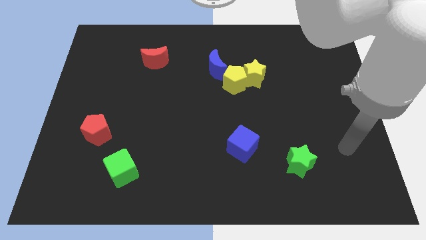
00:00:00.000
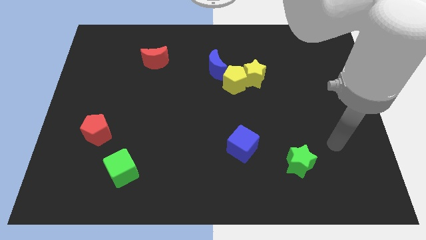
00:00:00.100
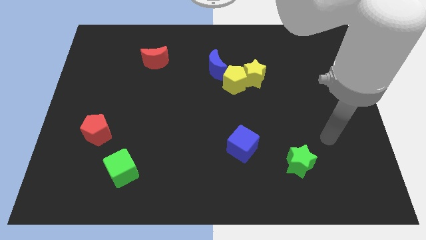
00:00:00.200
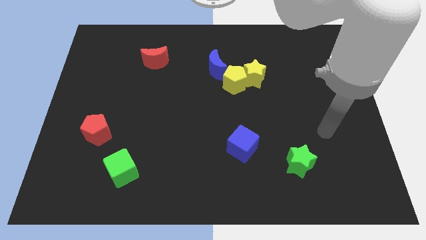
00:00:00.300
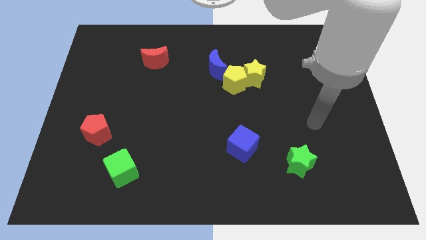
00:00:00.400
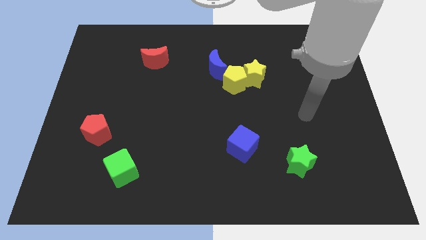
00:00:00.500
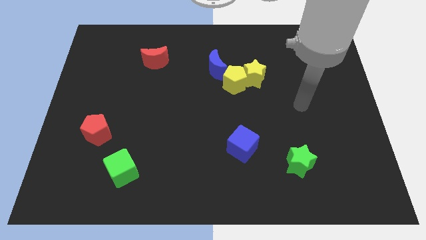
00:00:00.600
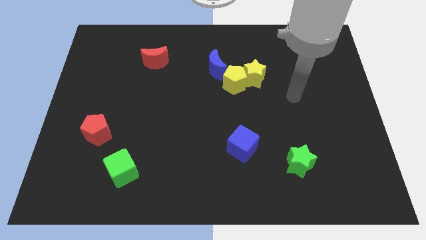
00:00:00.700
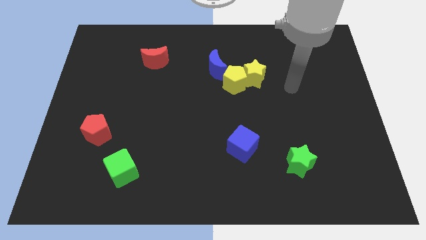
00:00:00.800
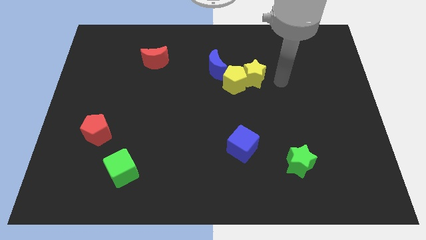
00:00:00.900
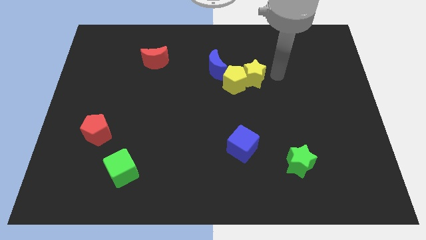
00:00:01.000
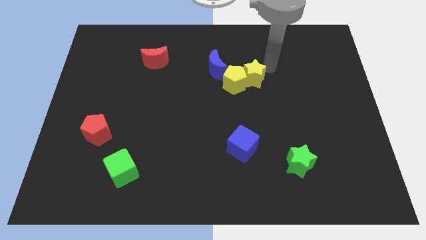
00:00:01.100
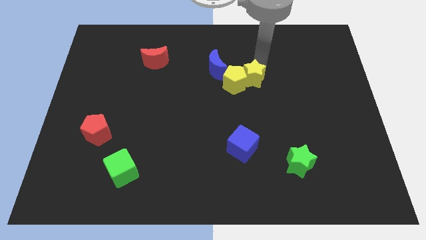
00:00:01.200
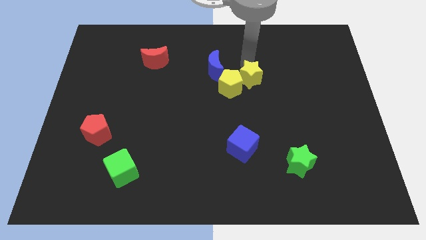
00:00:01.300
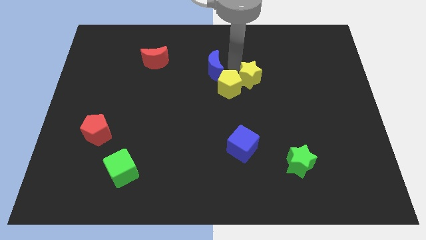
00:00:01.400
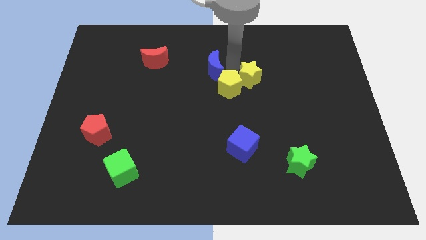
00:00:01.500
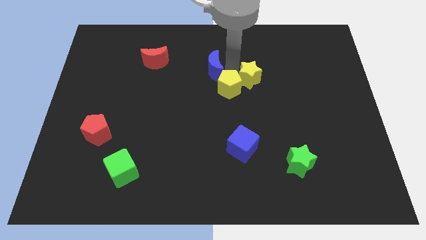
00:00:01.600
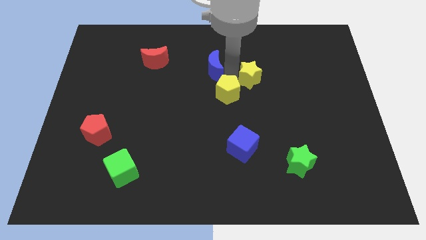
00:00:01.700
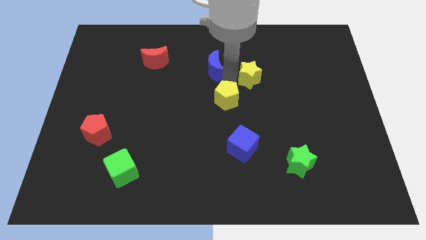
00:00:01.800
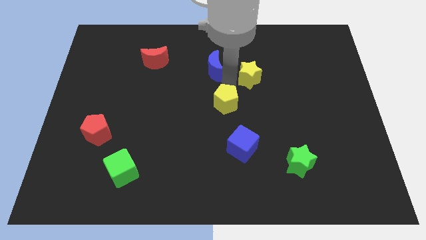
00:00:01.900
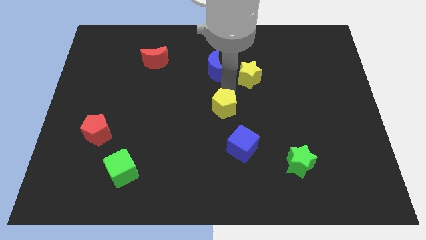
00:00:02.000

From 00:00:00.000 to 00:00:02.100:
separate the yellow pentagon from the yellow star and blue moon

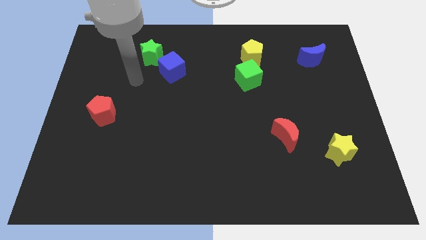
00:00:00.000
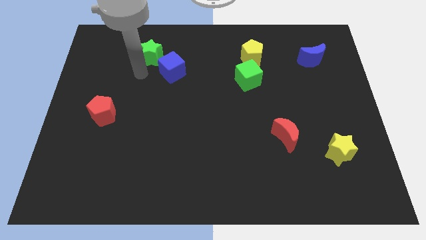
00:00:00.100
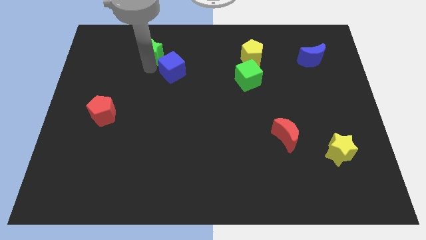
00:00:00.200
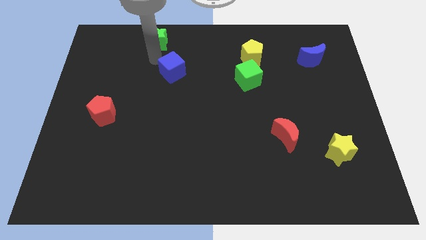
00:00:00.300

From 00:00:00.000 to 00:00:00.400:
pull the blue cube apart from the green star

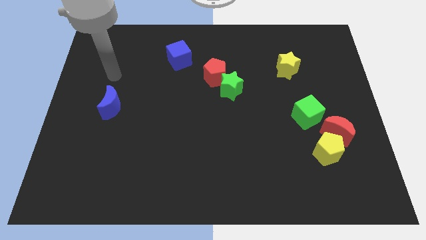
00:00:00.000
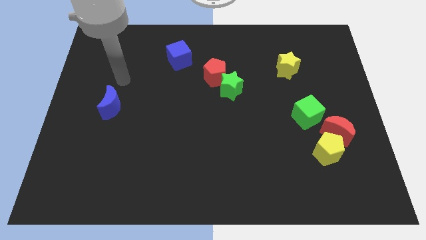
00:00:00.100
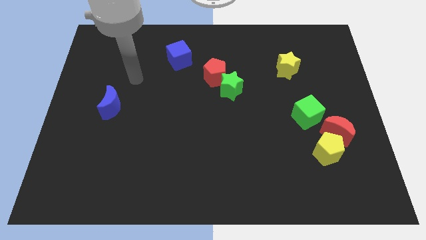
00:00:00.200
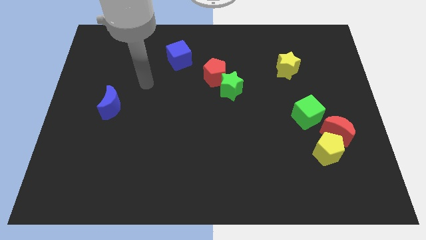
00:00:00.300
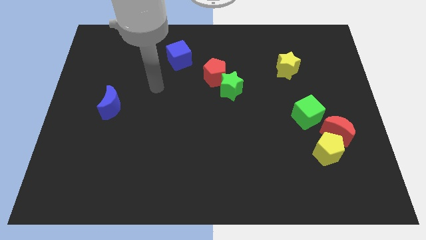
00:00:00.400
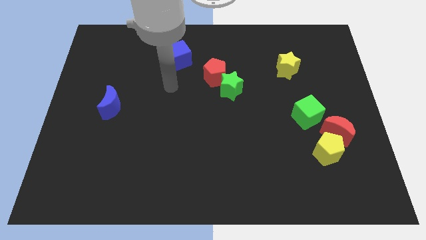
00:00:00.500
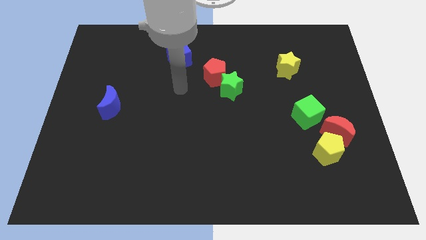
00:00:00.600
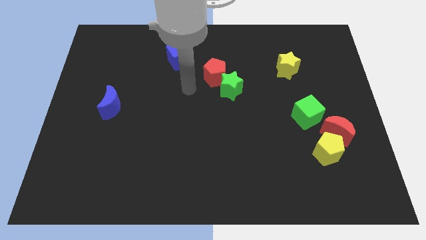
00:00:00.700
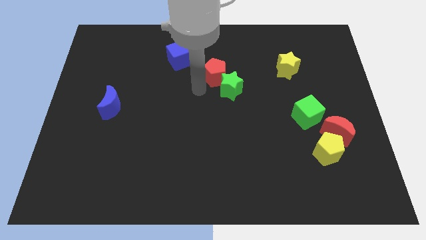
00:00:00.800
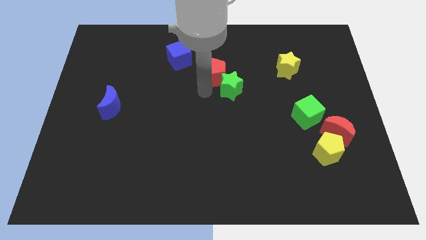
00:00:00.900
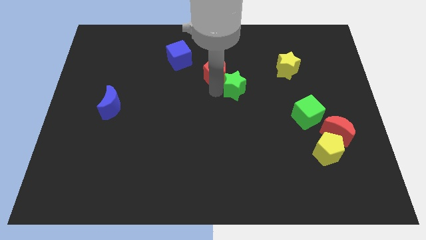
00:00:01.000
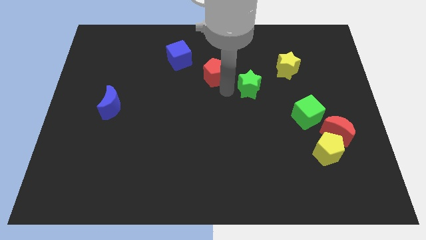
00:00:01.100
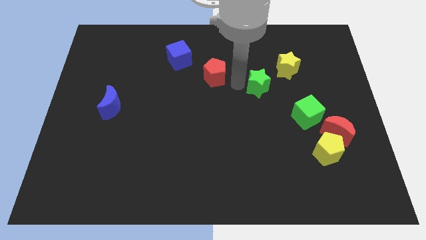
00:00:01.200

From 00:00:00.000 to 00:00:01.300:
pull the red pentagon apart from the green star

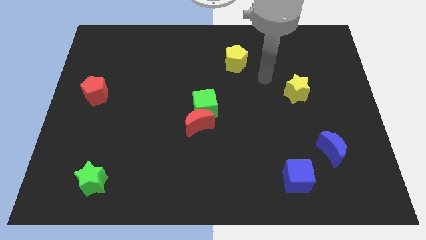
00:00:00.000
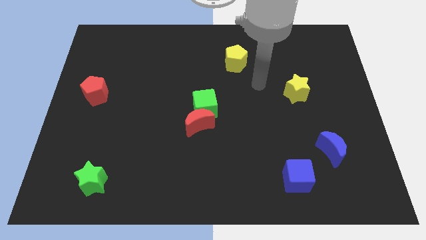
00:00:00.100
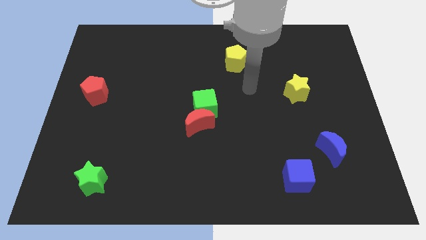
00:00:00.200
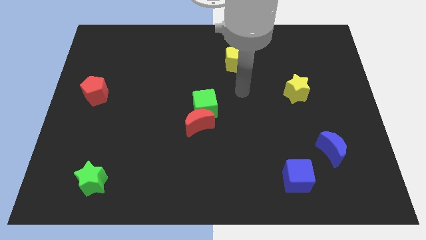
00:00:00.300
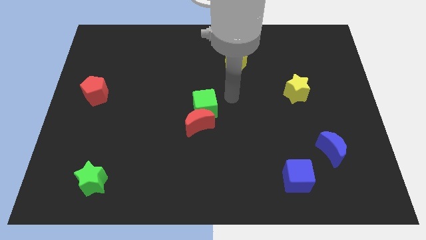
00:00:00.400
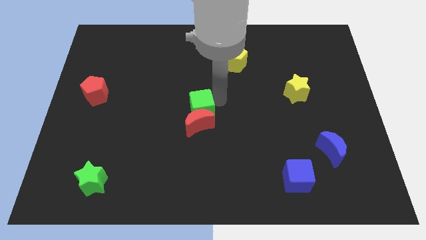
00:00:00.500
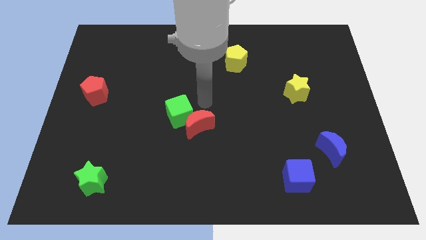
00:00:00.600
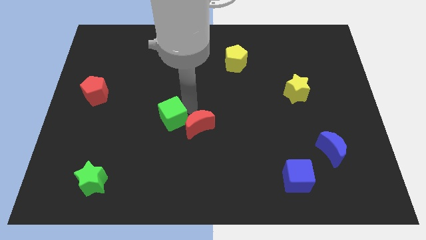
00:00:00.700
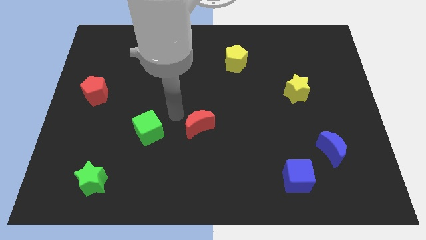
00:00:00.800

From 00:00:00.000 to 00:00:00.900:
separate the red moon from the green cube

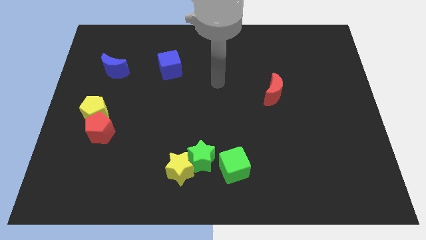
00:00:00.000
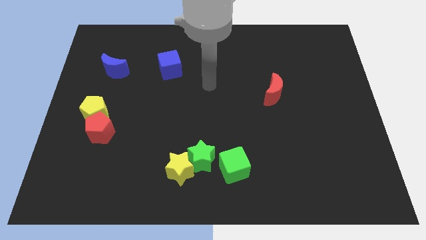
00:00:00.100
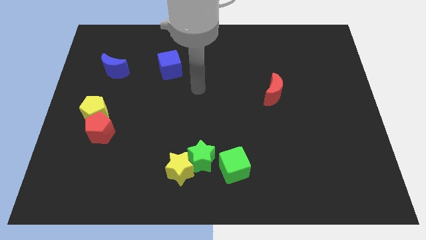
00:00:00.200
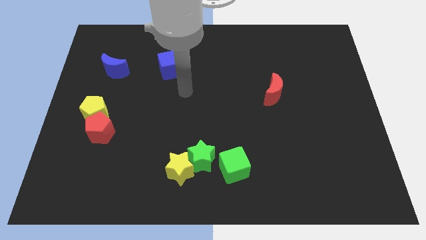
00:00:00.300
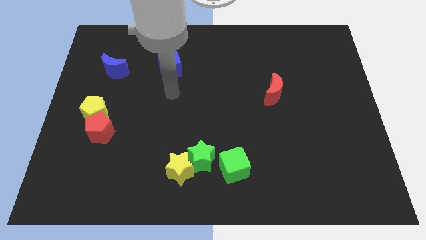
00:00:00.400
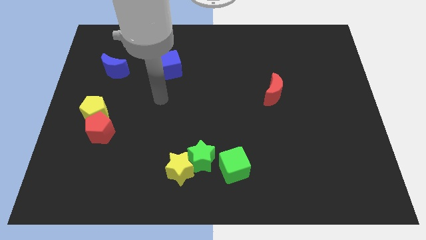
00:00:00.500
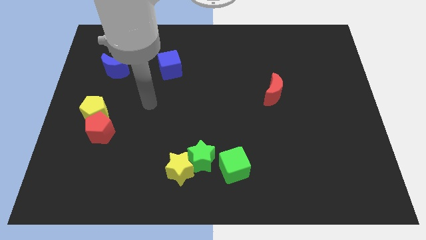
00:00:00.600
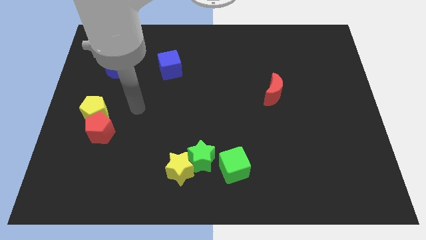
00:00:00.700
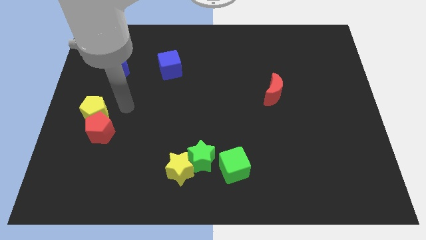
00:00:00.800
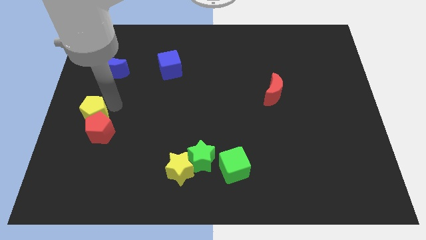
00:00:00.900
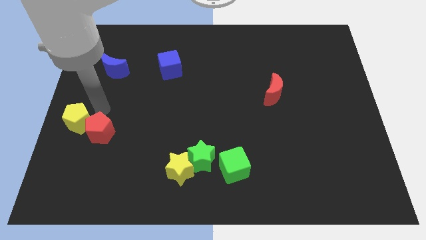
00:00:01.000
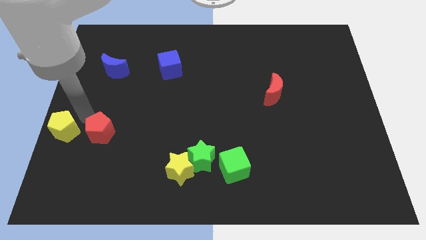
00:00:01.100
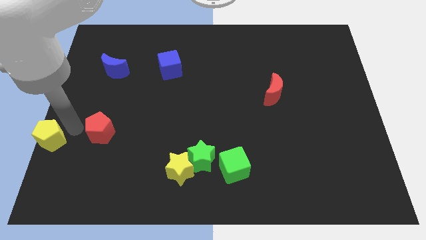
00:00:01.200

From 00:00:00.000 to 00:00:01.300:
separate the red pentagon from the yellow pentagon

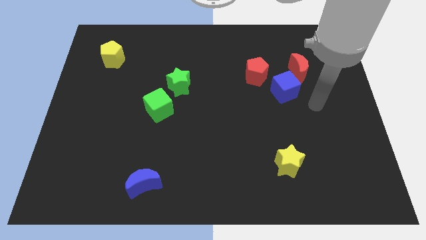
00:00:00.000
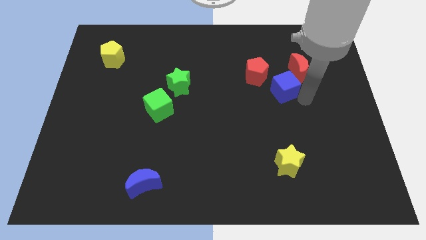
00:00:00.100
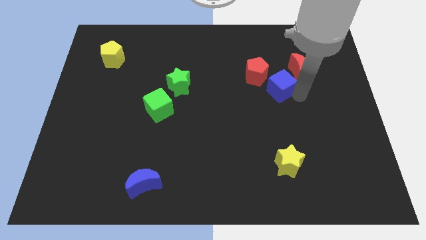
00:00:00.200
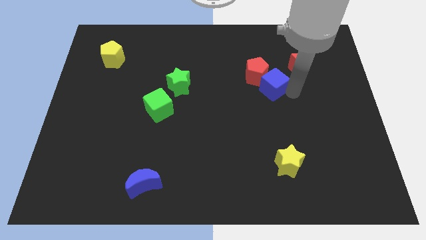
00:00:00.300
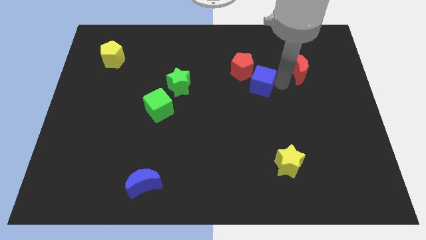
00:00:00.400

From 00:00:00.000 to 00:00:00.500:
pull the red moon apart from the blue cube

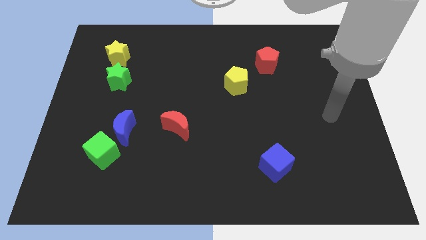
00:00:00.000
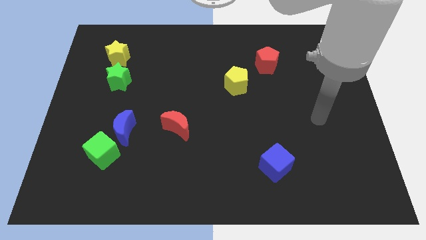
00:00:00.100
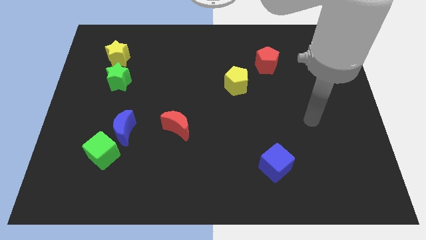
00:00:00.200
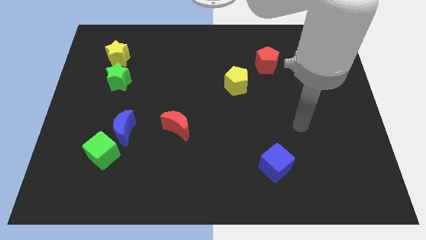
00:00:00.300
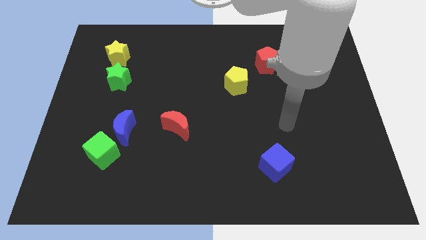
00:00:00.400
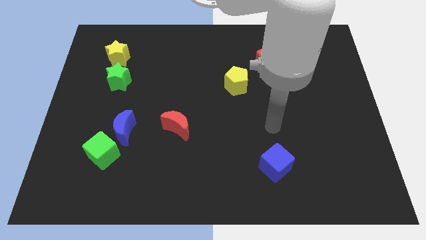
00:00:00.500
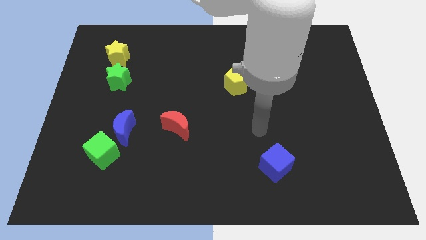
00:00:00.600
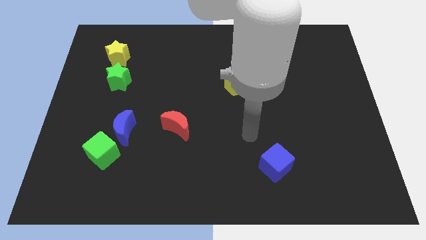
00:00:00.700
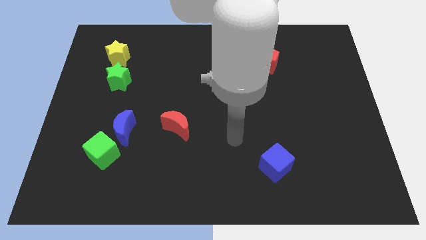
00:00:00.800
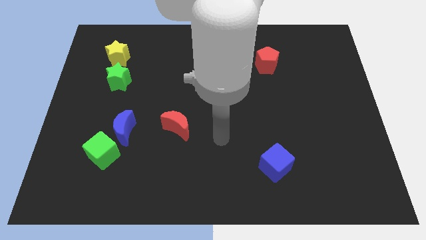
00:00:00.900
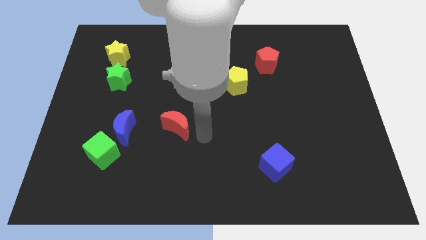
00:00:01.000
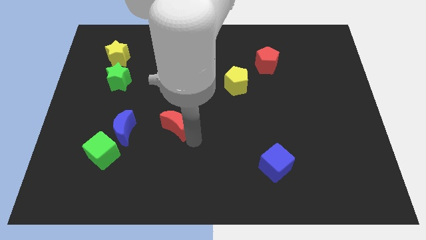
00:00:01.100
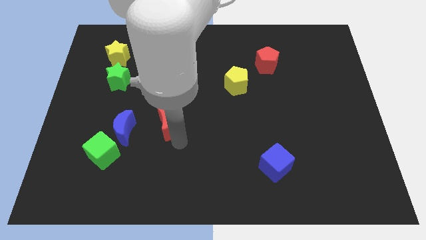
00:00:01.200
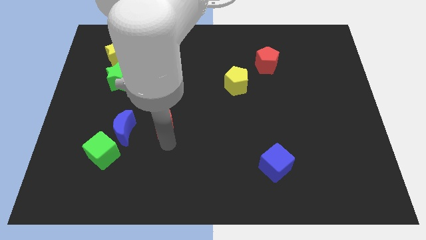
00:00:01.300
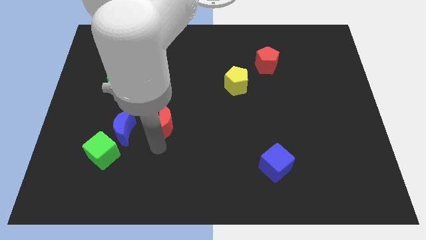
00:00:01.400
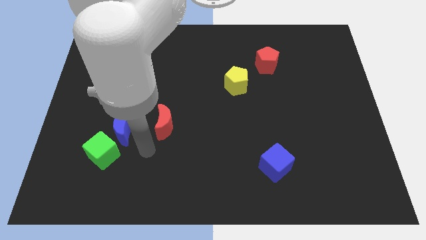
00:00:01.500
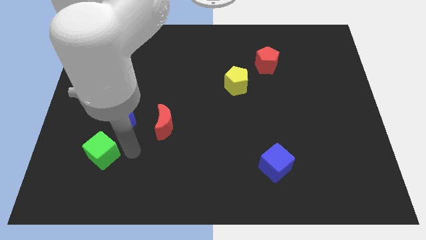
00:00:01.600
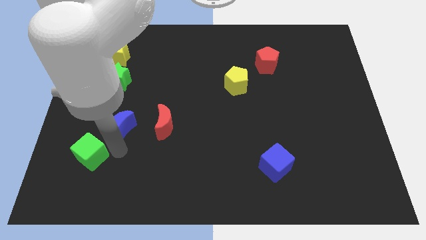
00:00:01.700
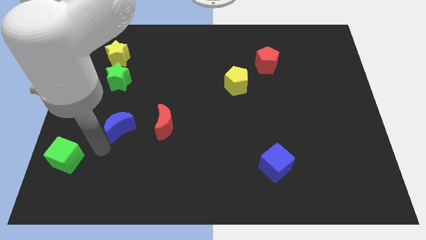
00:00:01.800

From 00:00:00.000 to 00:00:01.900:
separate the blue moon from the green cube

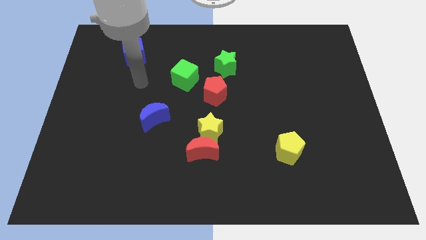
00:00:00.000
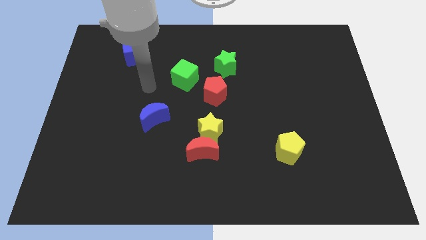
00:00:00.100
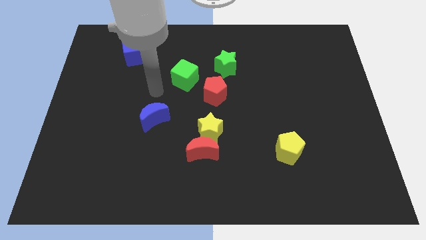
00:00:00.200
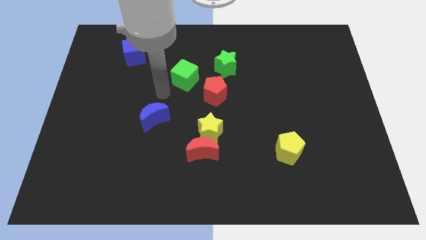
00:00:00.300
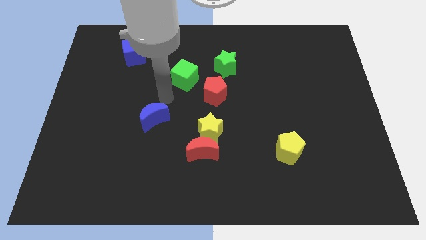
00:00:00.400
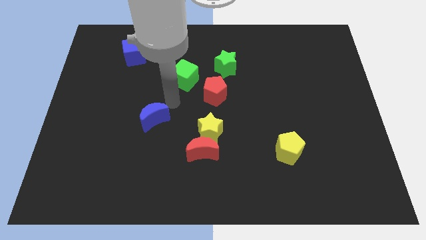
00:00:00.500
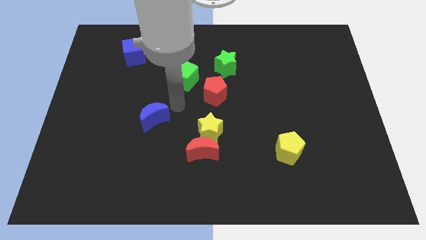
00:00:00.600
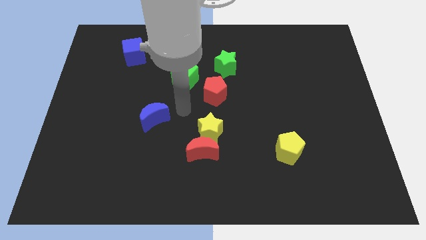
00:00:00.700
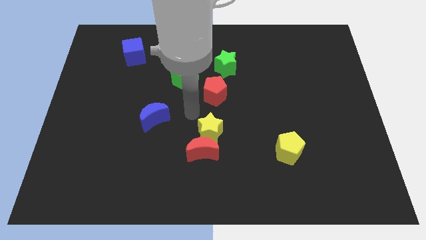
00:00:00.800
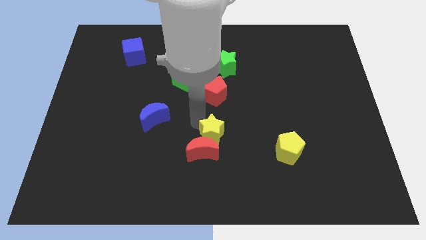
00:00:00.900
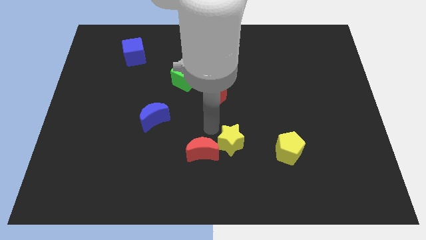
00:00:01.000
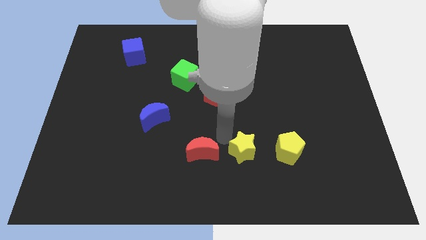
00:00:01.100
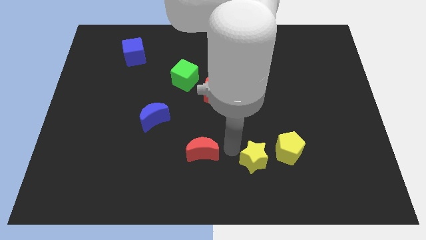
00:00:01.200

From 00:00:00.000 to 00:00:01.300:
pull the red moon apart from the yellow star
